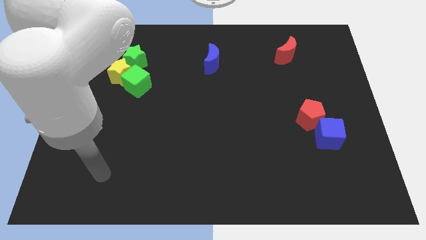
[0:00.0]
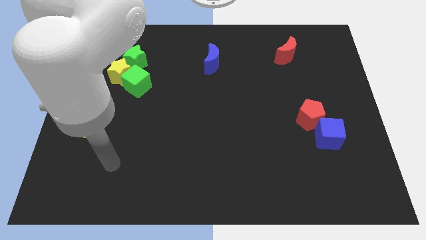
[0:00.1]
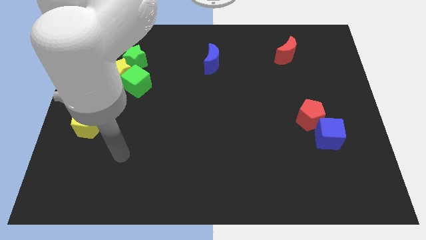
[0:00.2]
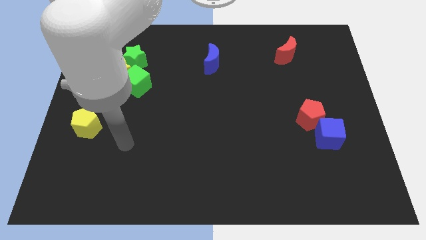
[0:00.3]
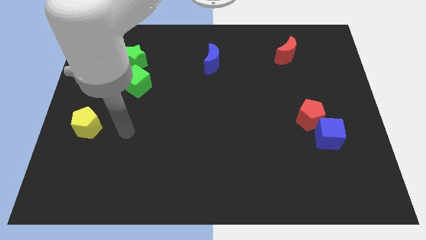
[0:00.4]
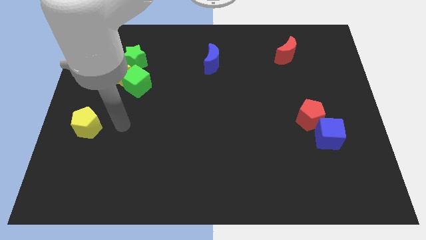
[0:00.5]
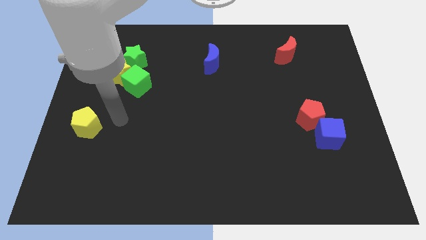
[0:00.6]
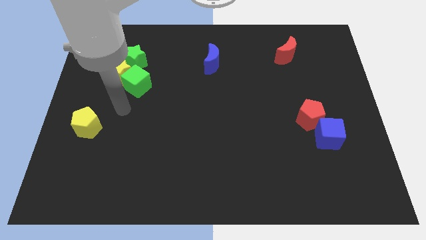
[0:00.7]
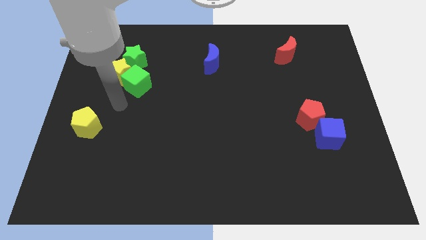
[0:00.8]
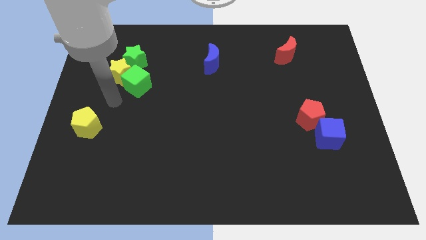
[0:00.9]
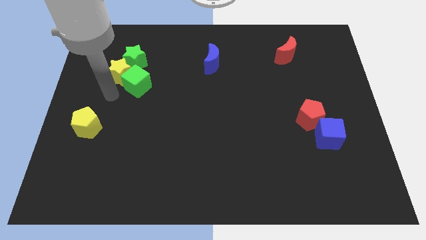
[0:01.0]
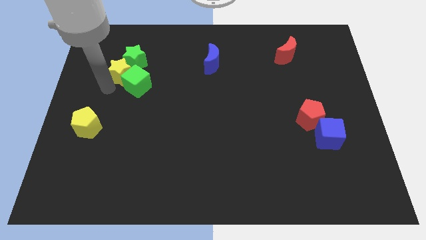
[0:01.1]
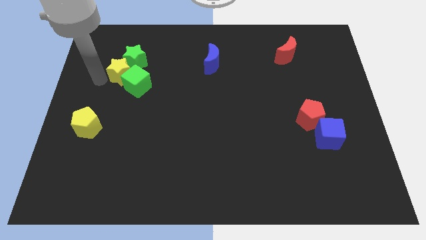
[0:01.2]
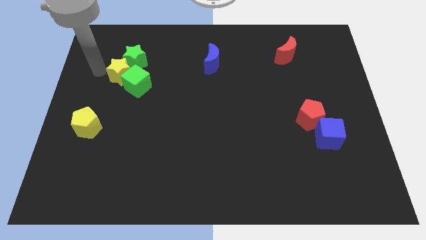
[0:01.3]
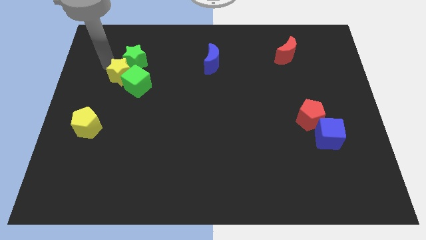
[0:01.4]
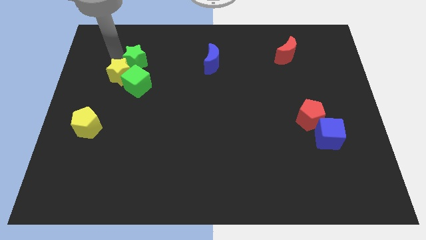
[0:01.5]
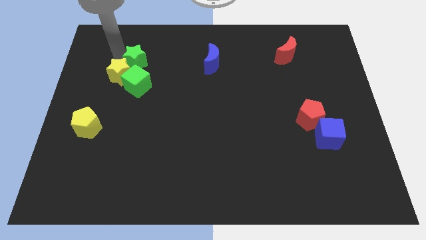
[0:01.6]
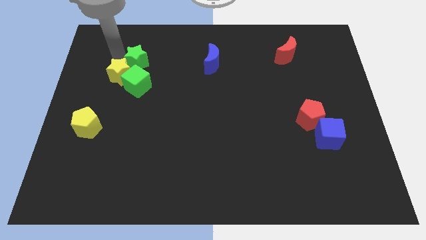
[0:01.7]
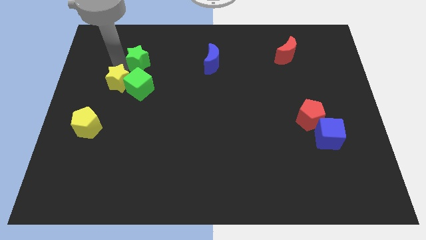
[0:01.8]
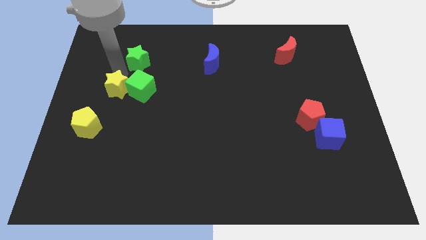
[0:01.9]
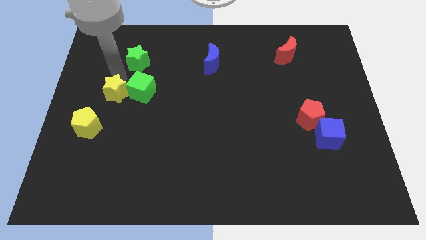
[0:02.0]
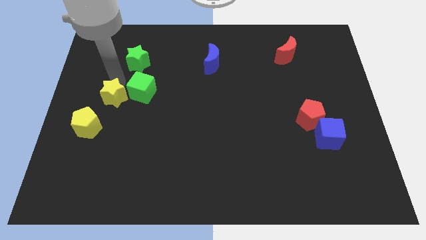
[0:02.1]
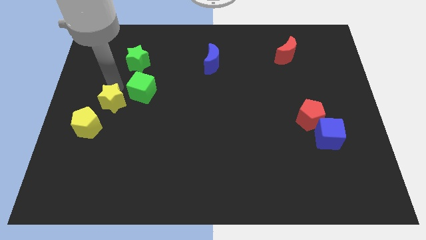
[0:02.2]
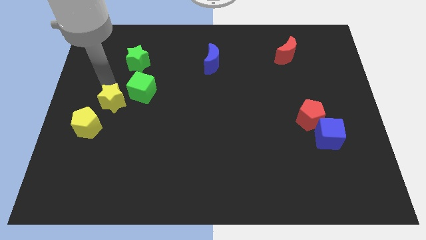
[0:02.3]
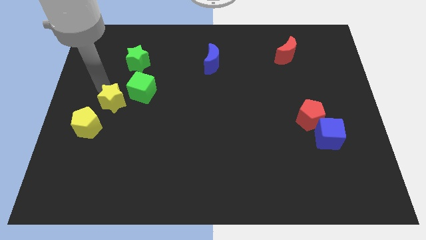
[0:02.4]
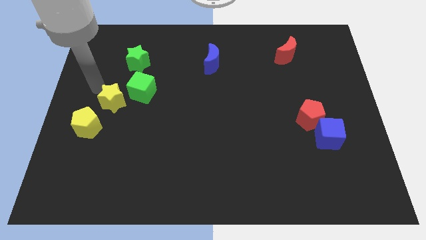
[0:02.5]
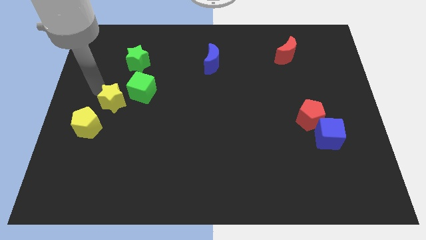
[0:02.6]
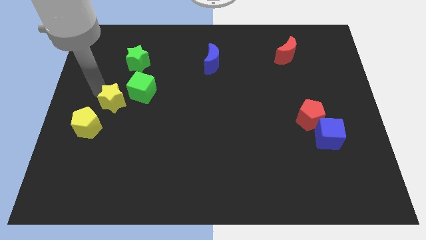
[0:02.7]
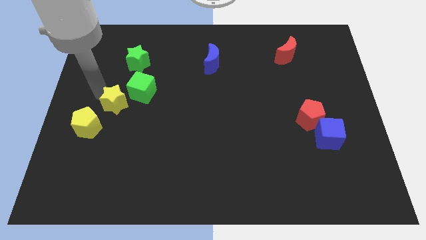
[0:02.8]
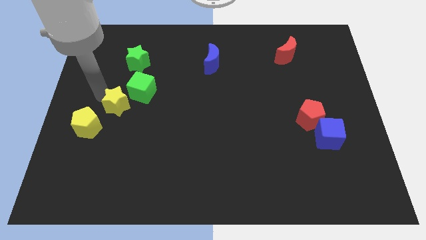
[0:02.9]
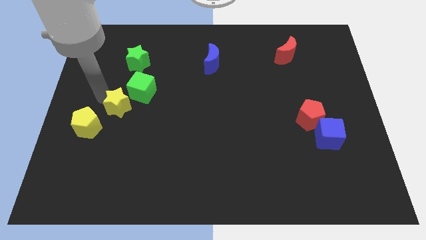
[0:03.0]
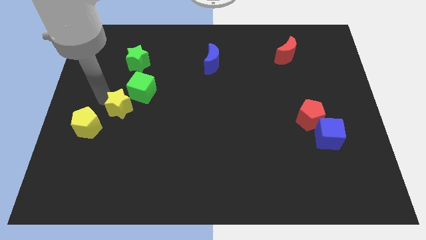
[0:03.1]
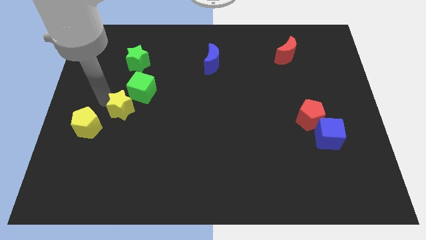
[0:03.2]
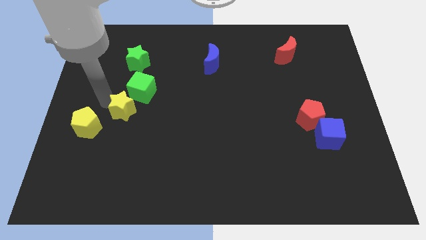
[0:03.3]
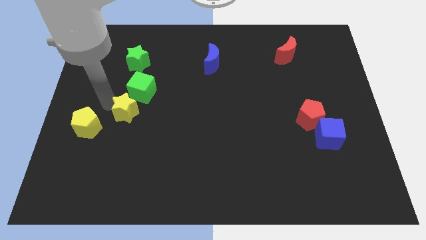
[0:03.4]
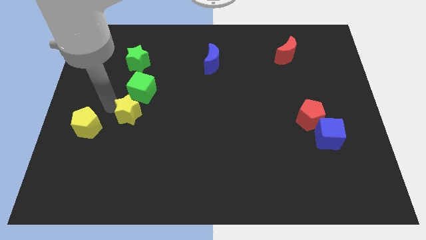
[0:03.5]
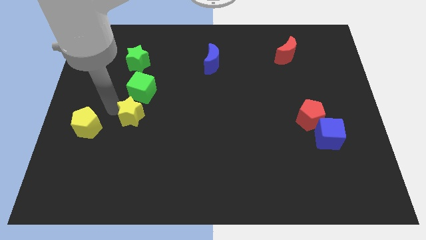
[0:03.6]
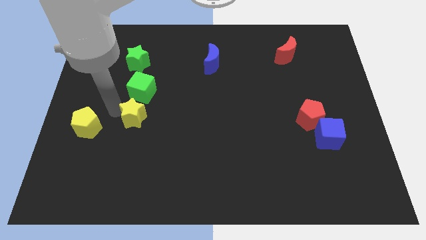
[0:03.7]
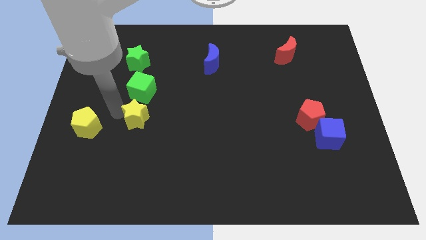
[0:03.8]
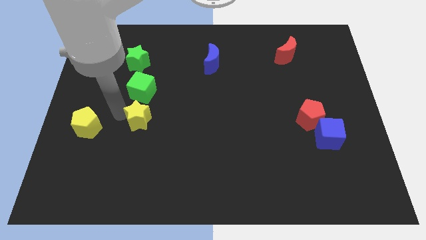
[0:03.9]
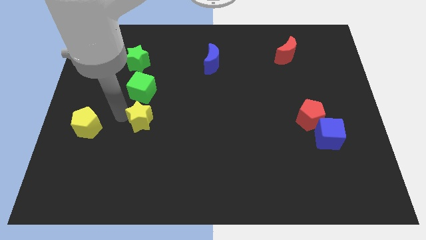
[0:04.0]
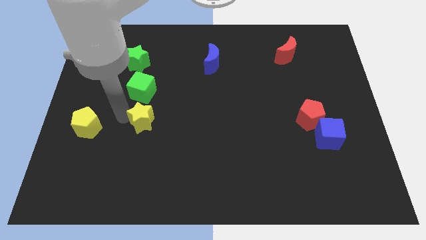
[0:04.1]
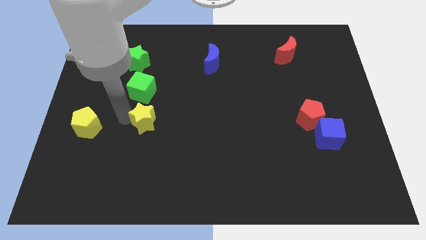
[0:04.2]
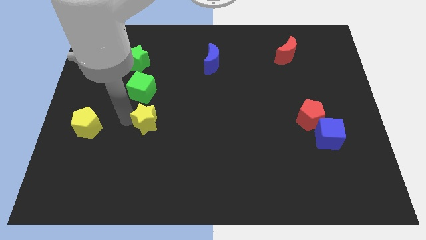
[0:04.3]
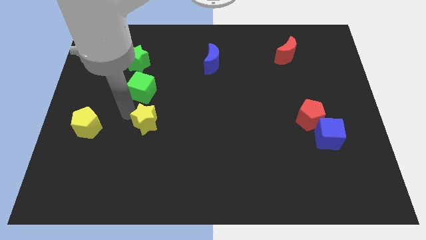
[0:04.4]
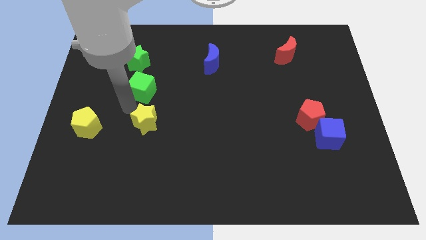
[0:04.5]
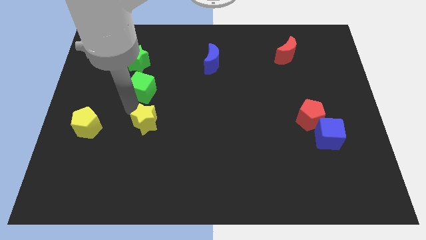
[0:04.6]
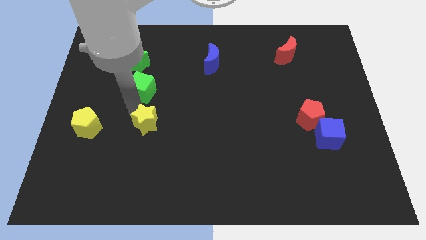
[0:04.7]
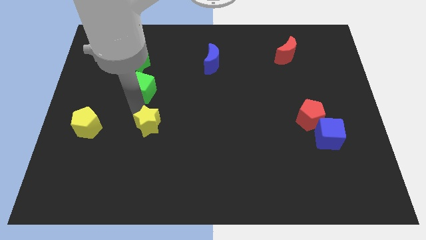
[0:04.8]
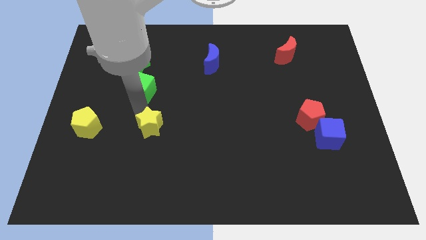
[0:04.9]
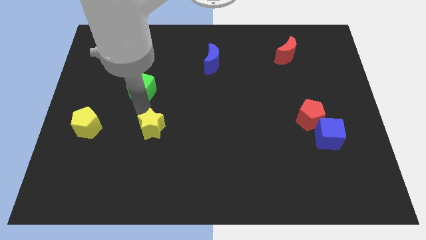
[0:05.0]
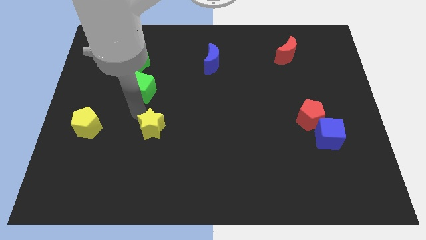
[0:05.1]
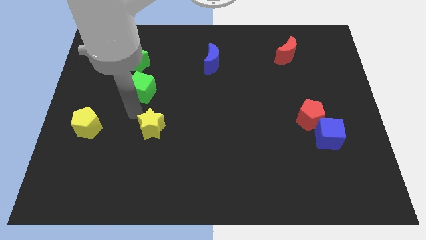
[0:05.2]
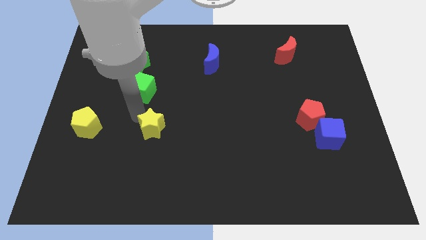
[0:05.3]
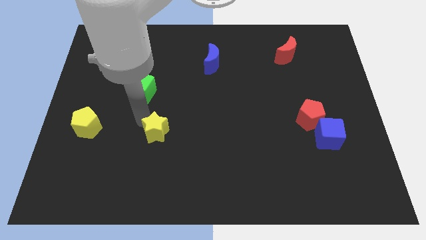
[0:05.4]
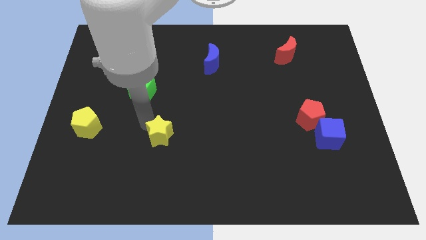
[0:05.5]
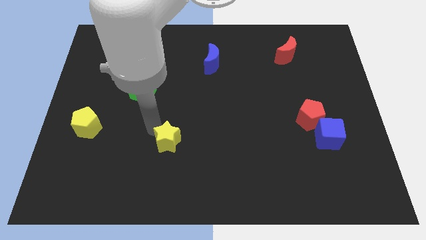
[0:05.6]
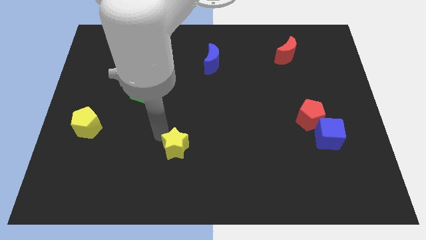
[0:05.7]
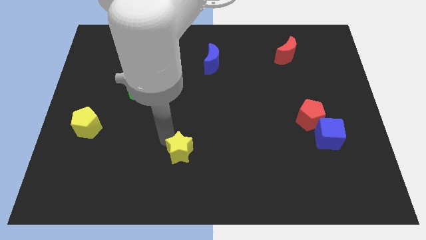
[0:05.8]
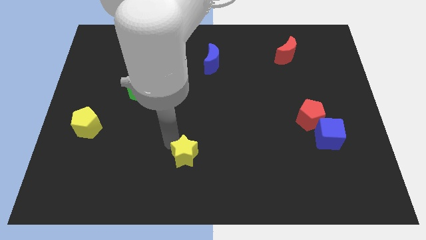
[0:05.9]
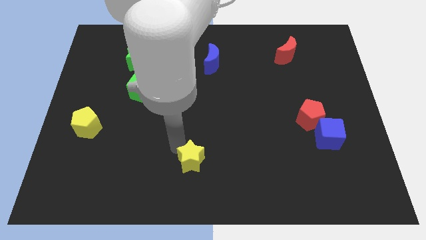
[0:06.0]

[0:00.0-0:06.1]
push the yellow star to the bottom side
